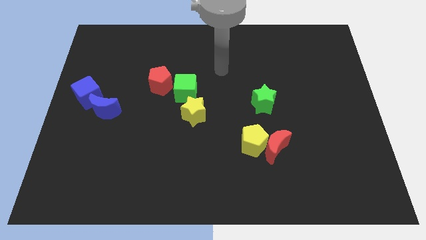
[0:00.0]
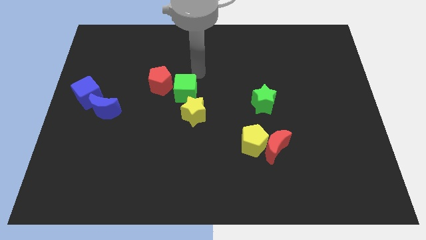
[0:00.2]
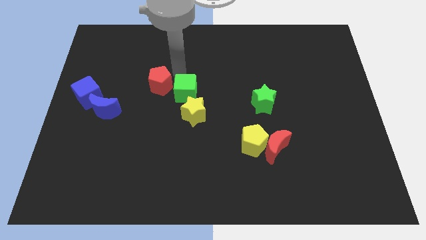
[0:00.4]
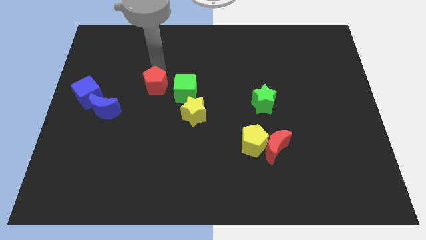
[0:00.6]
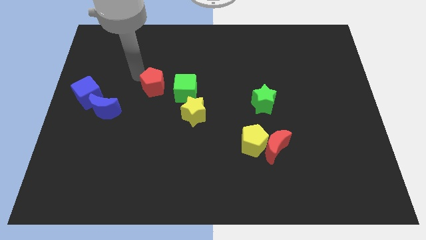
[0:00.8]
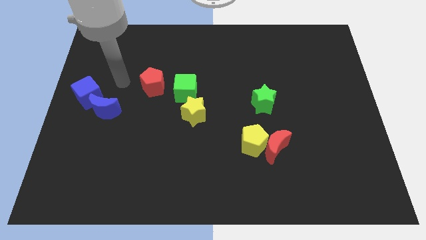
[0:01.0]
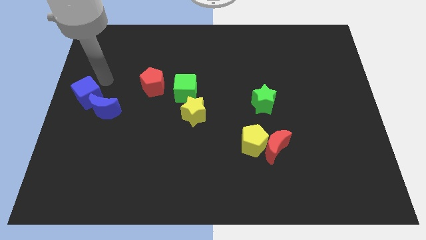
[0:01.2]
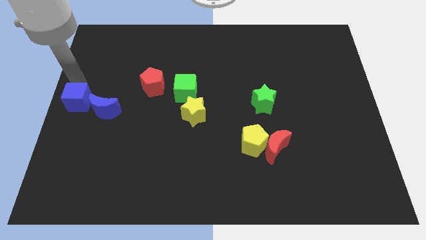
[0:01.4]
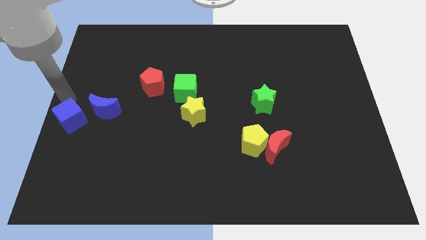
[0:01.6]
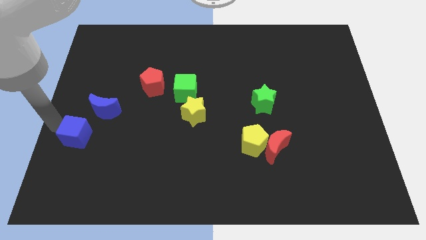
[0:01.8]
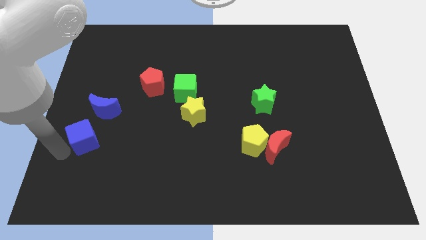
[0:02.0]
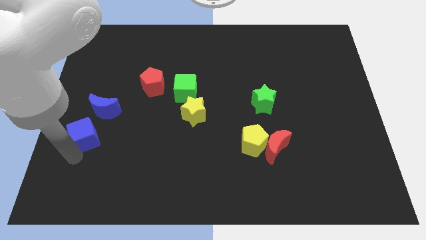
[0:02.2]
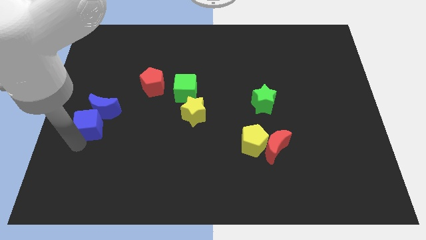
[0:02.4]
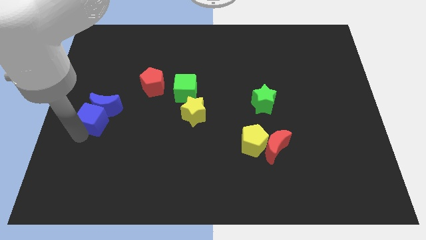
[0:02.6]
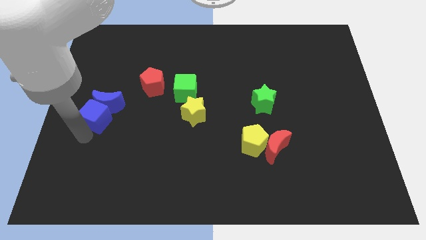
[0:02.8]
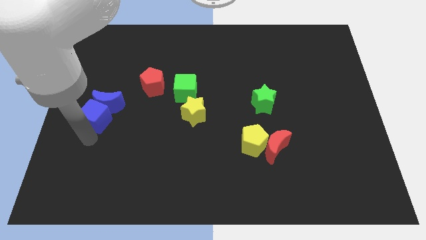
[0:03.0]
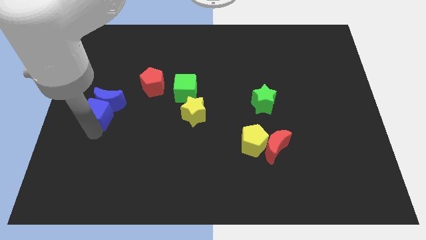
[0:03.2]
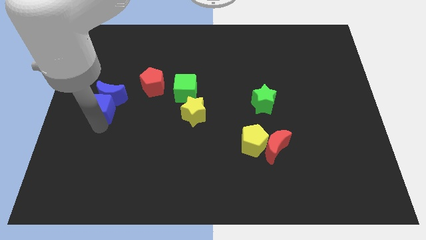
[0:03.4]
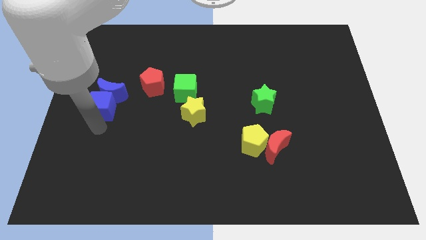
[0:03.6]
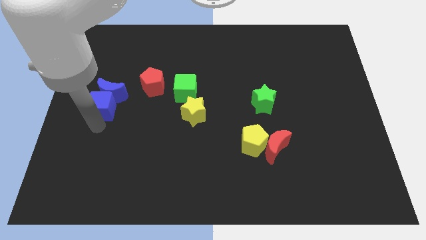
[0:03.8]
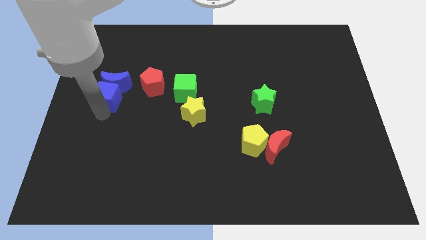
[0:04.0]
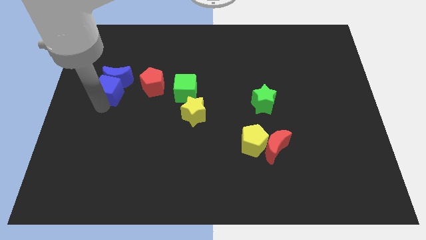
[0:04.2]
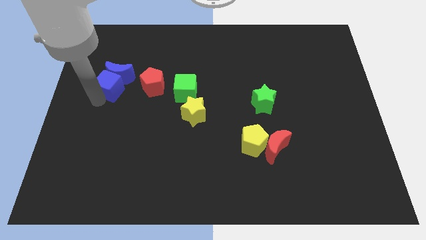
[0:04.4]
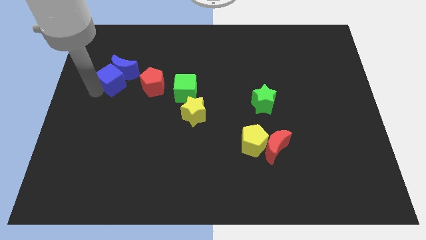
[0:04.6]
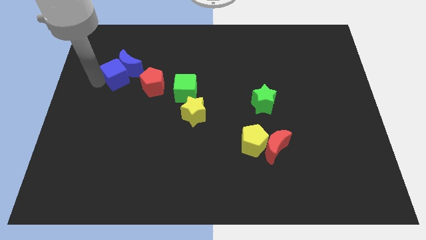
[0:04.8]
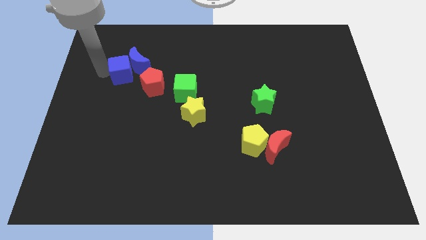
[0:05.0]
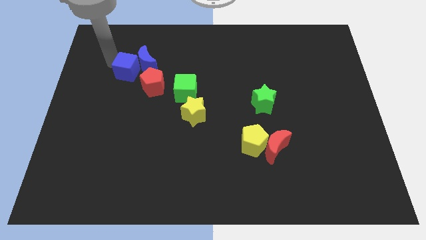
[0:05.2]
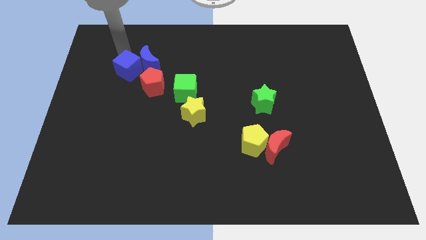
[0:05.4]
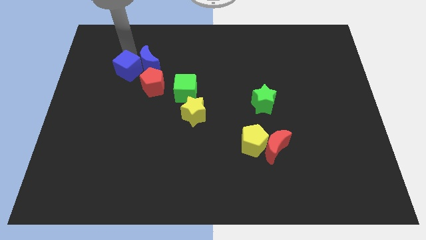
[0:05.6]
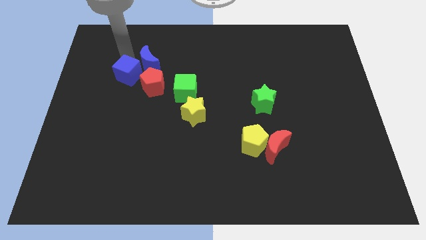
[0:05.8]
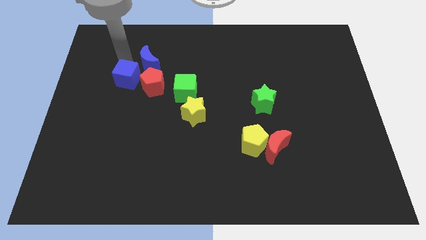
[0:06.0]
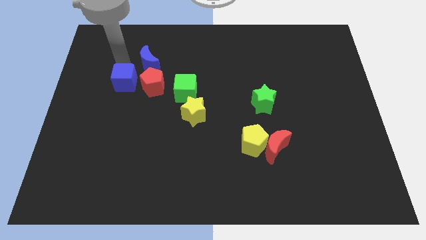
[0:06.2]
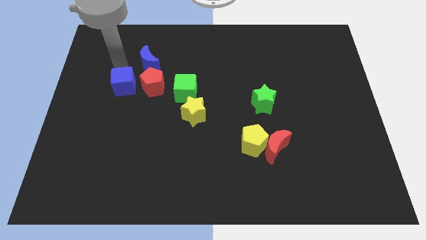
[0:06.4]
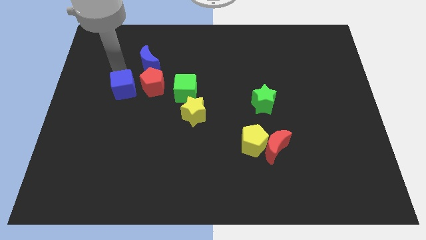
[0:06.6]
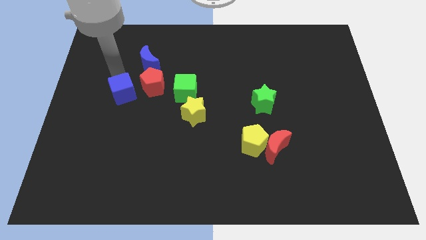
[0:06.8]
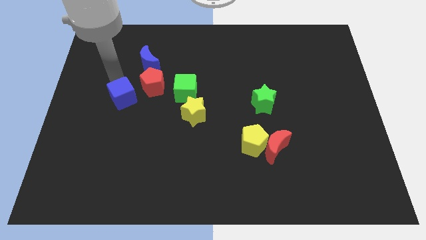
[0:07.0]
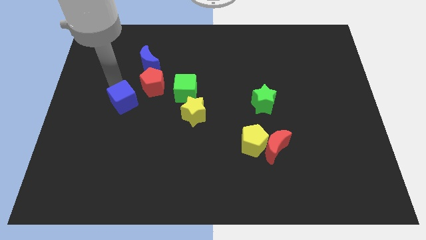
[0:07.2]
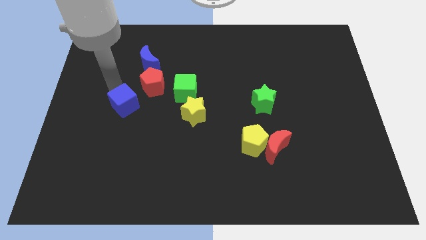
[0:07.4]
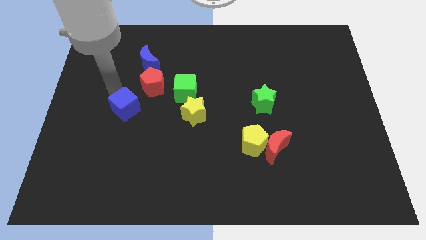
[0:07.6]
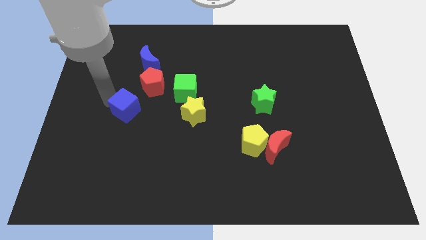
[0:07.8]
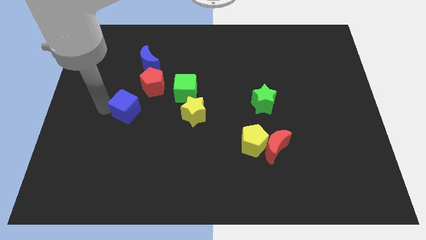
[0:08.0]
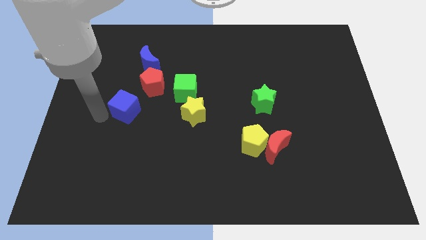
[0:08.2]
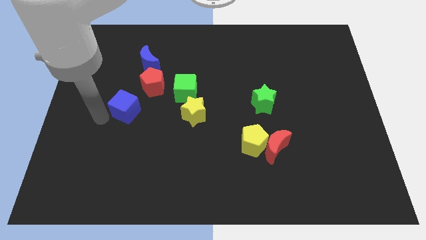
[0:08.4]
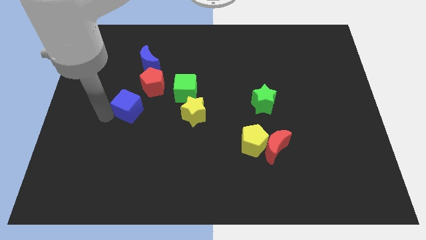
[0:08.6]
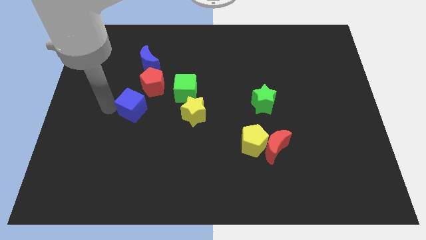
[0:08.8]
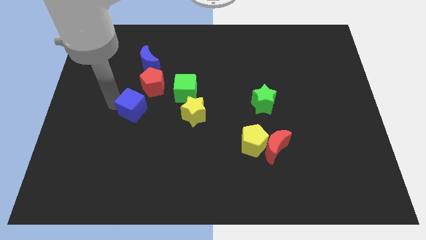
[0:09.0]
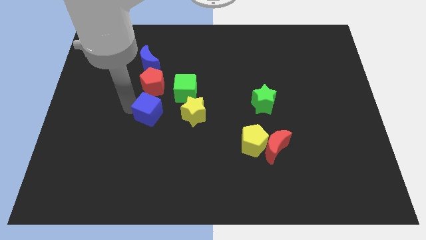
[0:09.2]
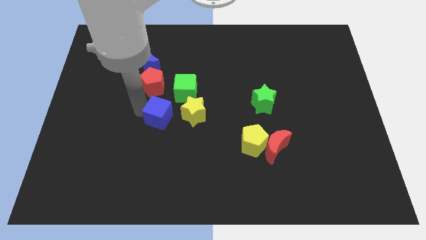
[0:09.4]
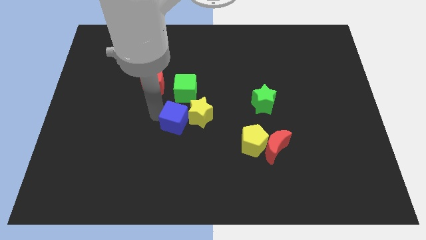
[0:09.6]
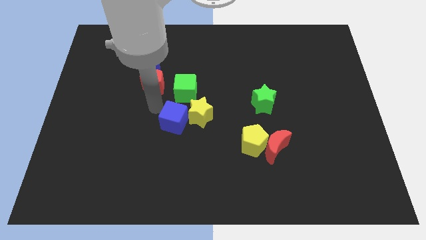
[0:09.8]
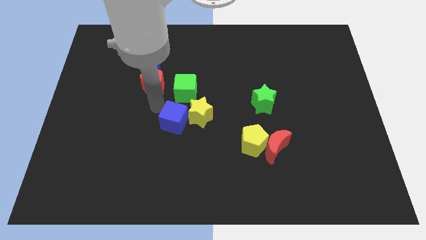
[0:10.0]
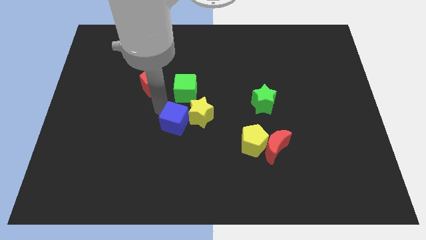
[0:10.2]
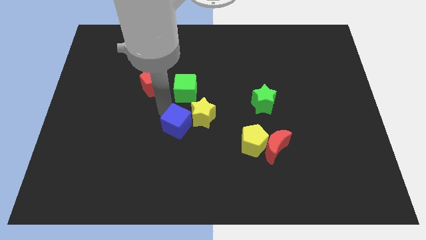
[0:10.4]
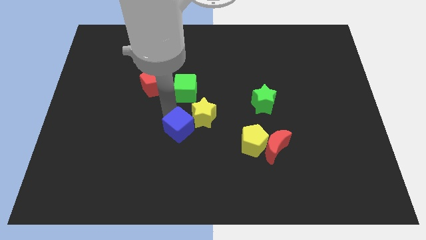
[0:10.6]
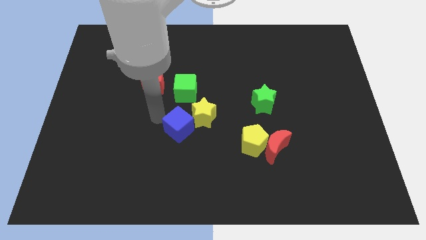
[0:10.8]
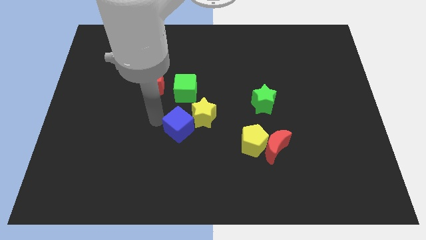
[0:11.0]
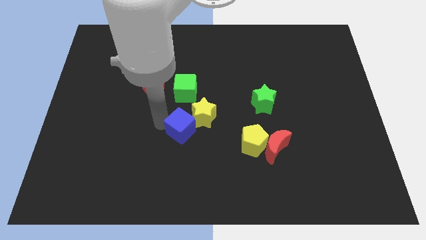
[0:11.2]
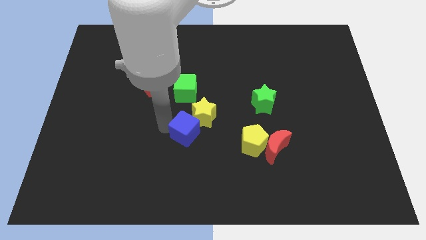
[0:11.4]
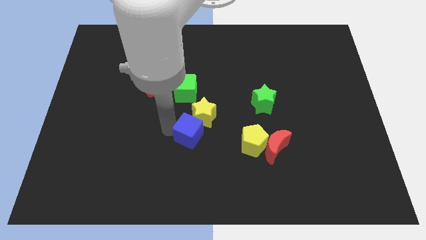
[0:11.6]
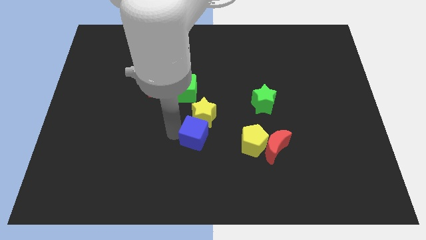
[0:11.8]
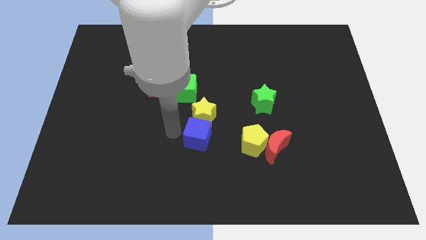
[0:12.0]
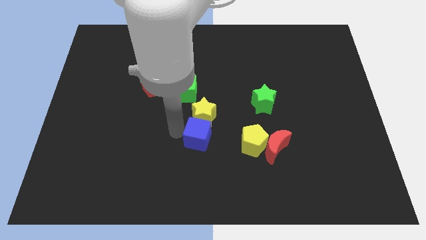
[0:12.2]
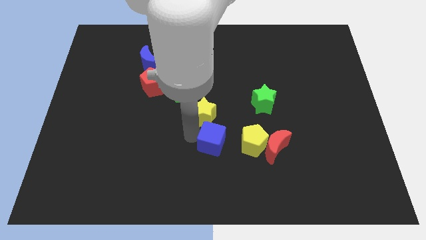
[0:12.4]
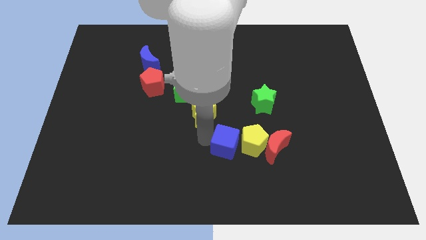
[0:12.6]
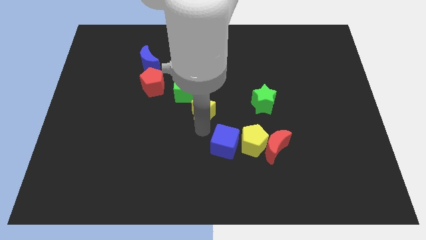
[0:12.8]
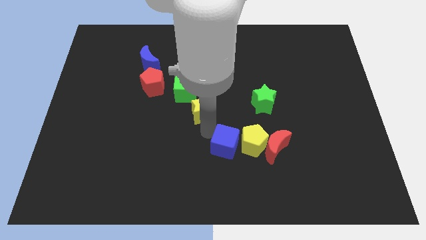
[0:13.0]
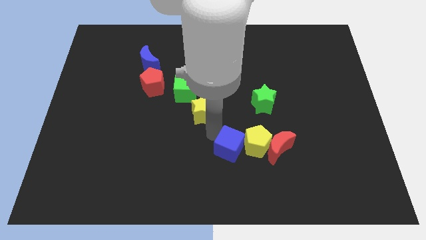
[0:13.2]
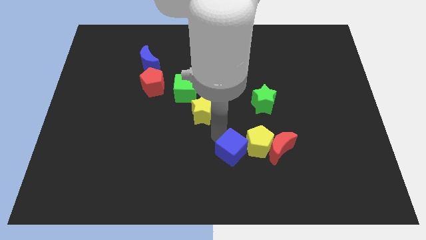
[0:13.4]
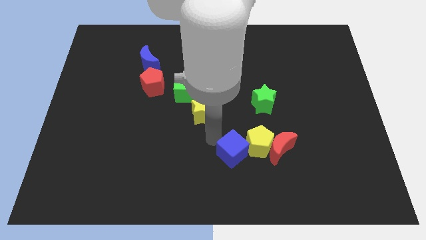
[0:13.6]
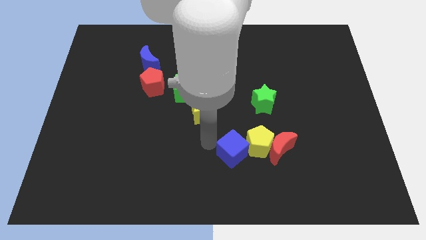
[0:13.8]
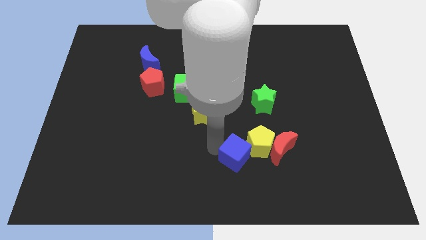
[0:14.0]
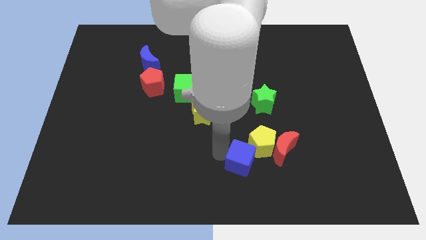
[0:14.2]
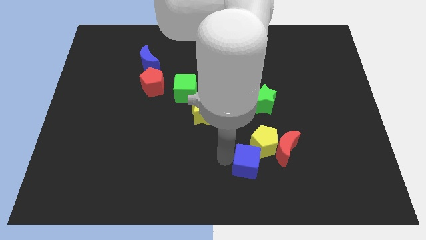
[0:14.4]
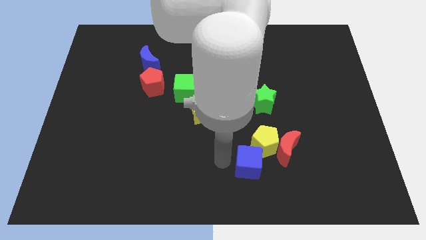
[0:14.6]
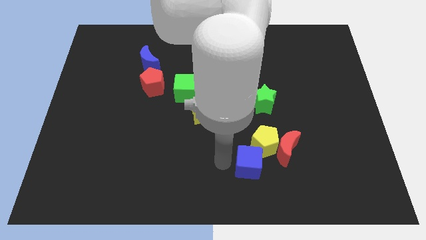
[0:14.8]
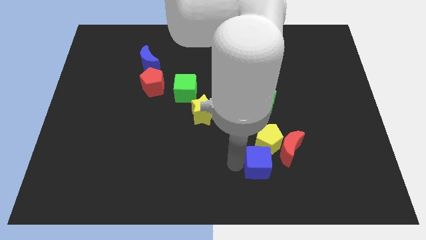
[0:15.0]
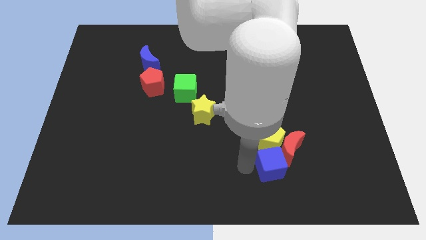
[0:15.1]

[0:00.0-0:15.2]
push the blue cube close to the red moon
